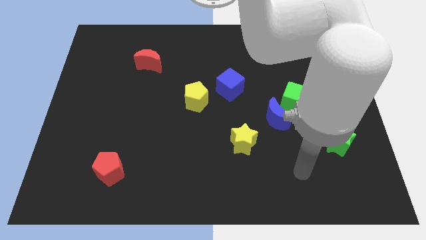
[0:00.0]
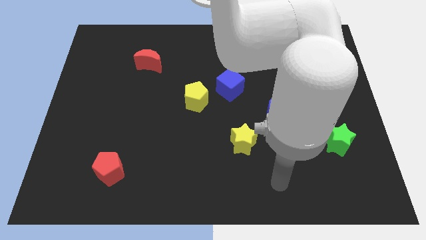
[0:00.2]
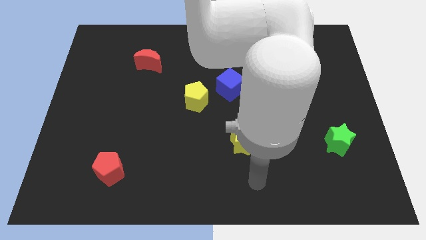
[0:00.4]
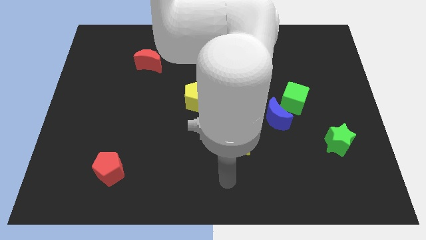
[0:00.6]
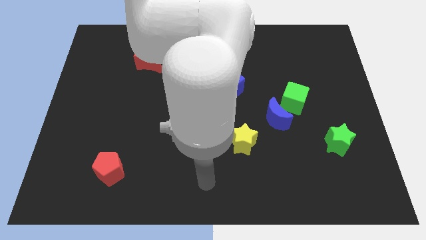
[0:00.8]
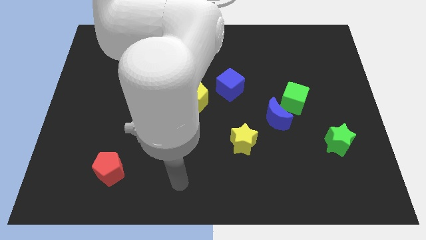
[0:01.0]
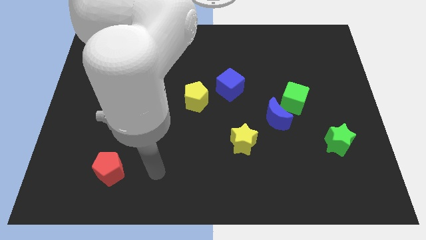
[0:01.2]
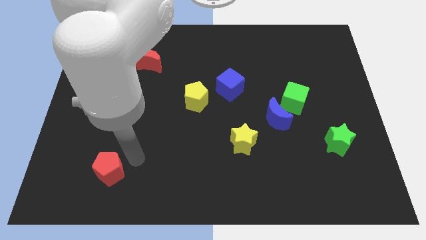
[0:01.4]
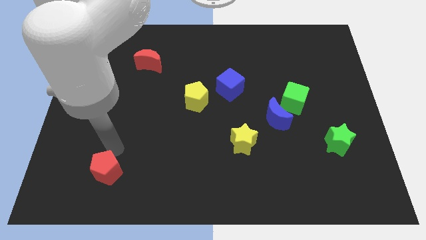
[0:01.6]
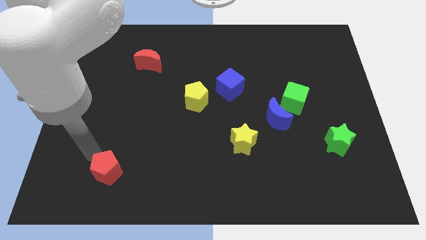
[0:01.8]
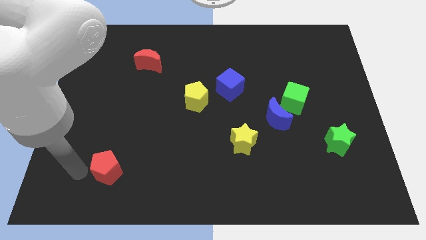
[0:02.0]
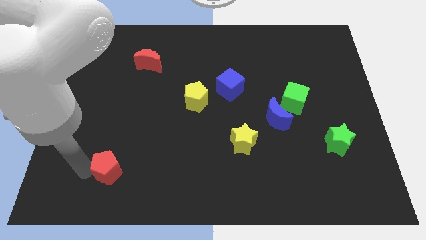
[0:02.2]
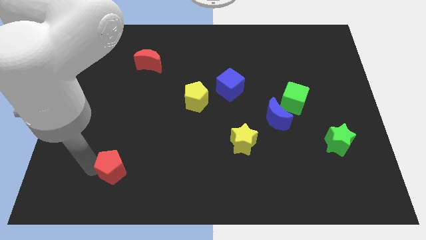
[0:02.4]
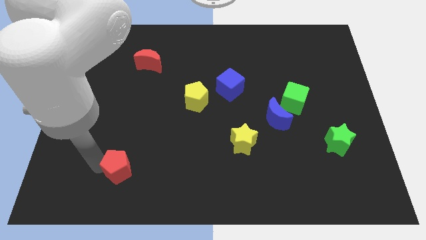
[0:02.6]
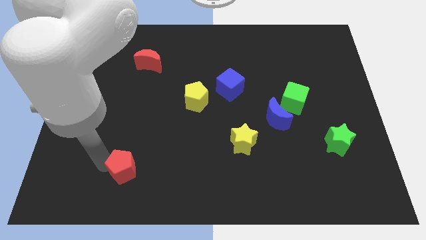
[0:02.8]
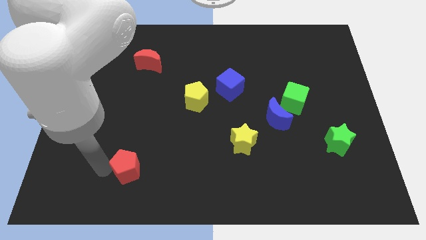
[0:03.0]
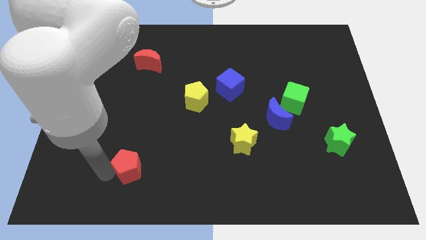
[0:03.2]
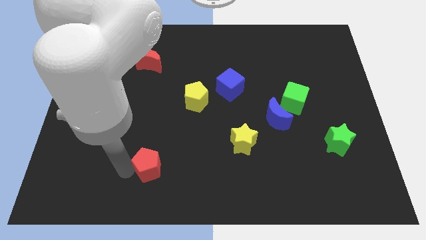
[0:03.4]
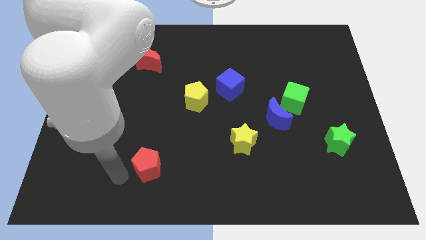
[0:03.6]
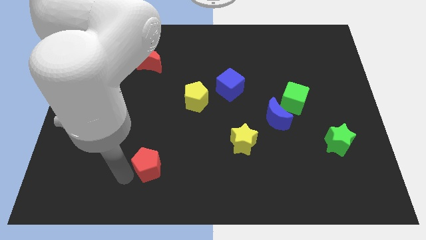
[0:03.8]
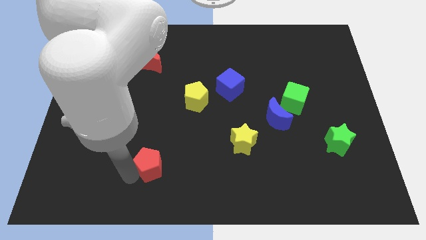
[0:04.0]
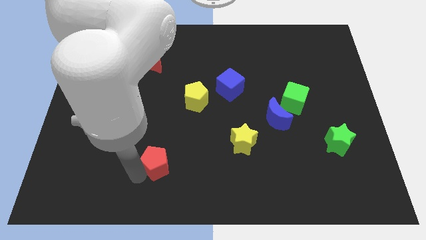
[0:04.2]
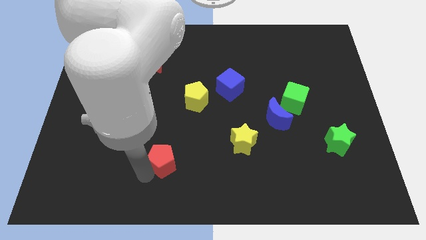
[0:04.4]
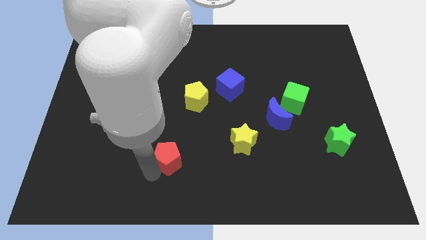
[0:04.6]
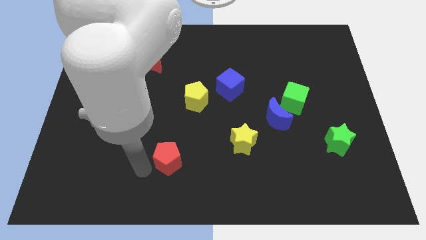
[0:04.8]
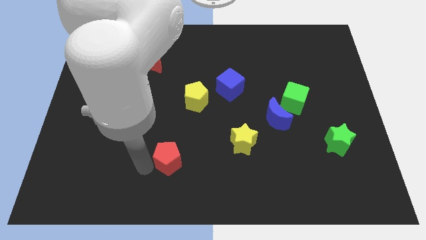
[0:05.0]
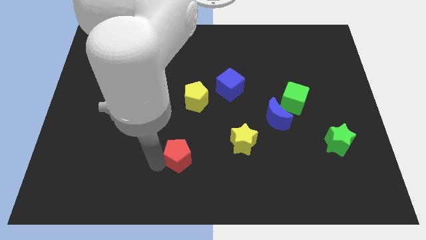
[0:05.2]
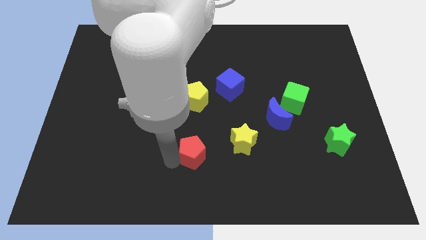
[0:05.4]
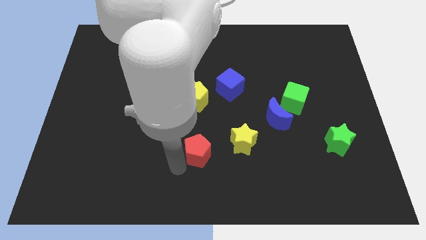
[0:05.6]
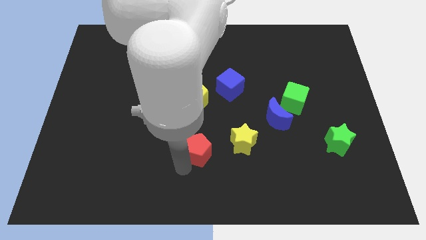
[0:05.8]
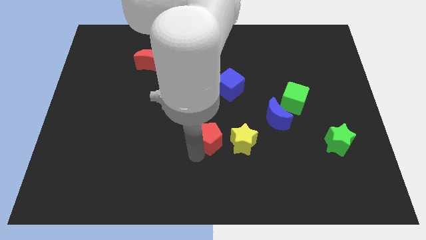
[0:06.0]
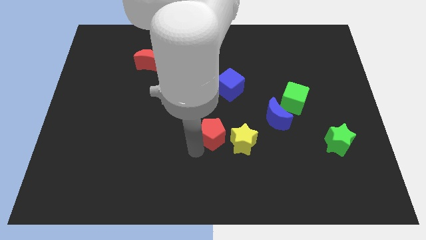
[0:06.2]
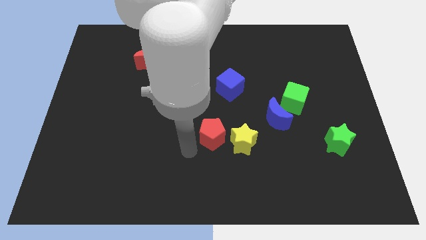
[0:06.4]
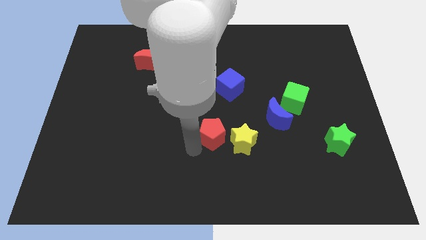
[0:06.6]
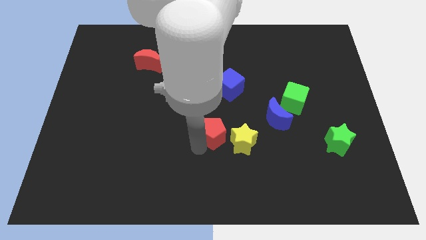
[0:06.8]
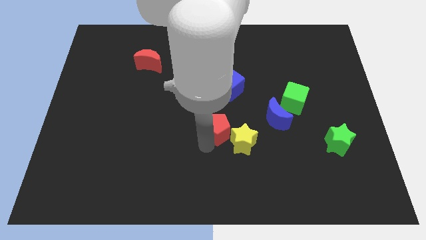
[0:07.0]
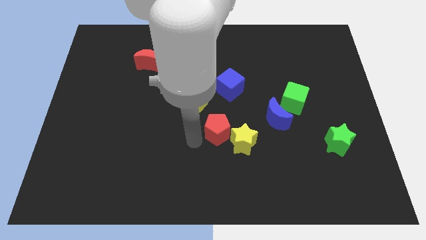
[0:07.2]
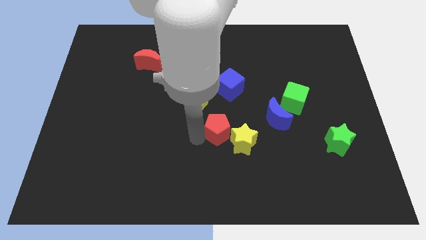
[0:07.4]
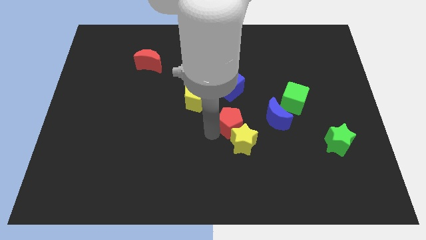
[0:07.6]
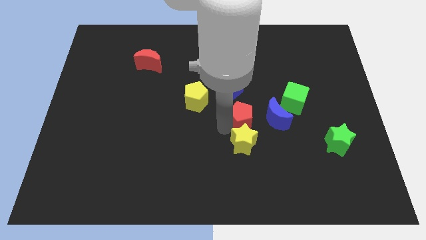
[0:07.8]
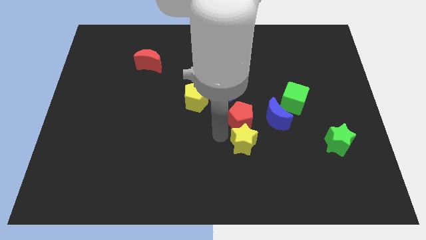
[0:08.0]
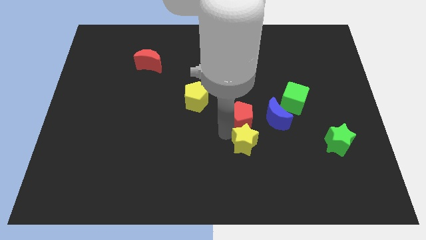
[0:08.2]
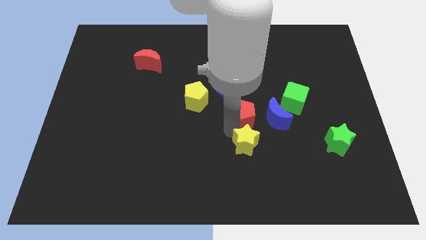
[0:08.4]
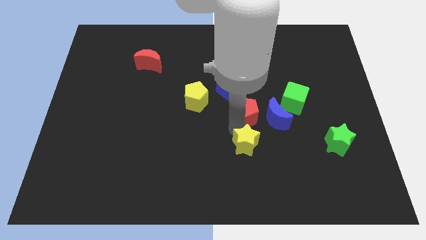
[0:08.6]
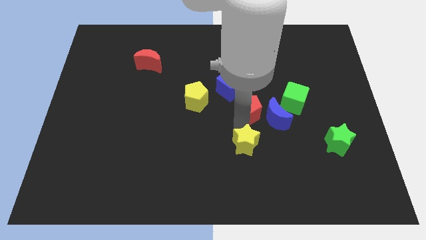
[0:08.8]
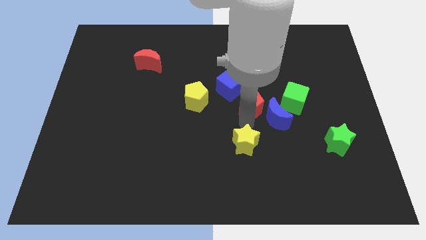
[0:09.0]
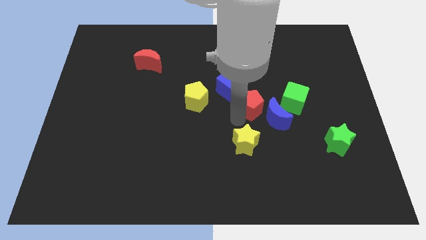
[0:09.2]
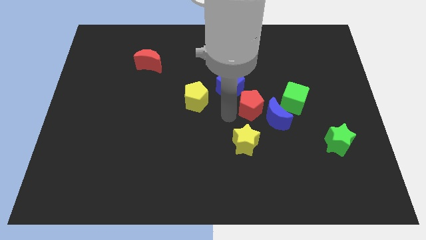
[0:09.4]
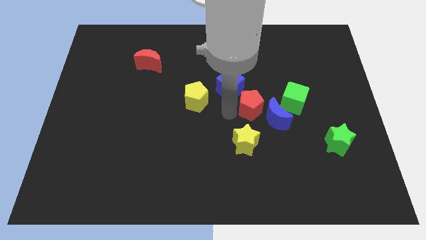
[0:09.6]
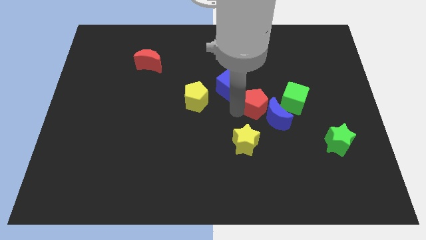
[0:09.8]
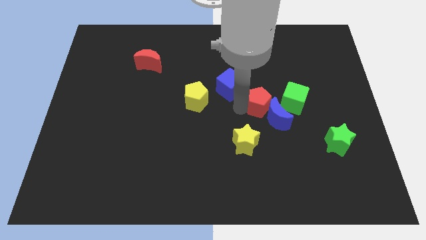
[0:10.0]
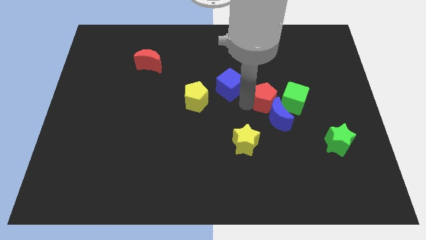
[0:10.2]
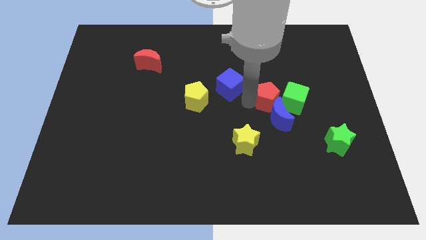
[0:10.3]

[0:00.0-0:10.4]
slide the red pentagon towards the green cube

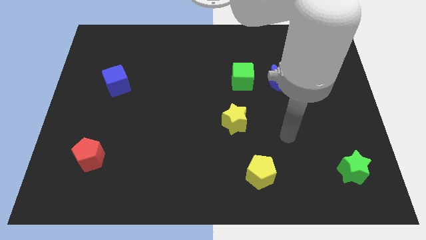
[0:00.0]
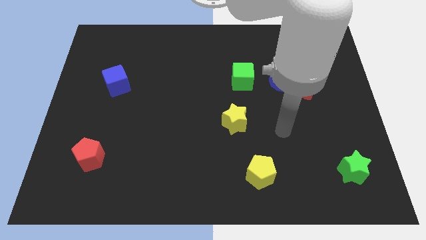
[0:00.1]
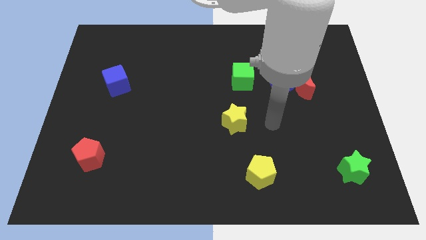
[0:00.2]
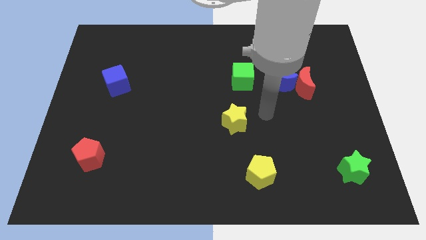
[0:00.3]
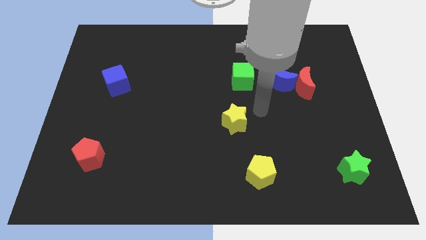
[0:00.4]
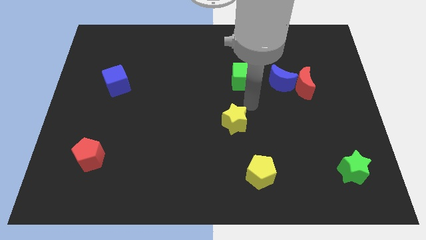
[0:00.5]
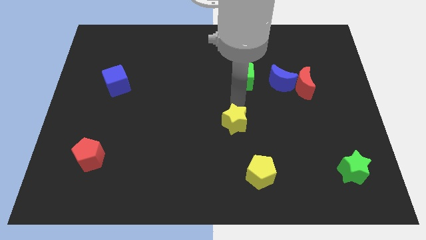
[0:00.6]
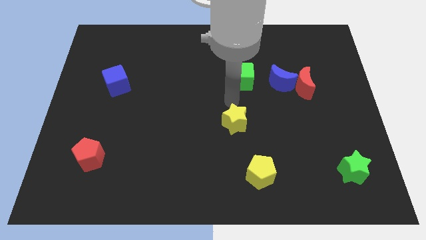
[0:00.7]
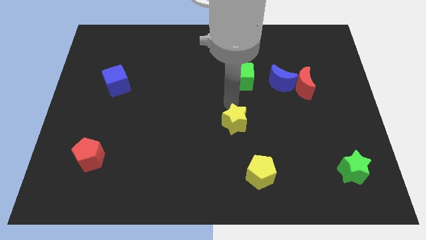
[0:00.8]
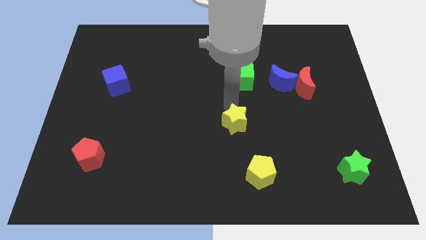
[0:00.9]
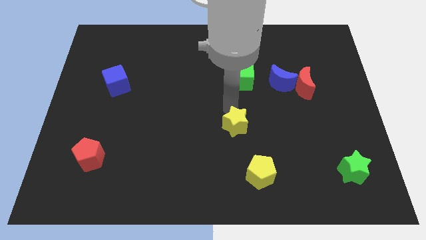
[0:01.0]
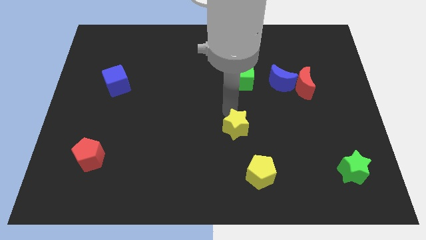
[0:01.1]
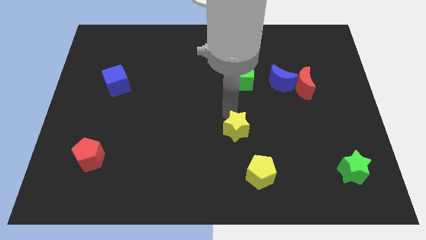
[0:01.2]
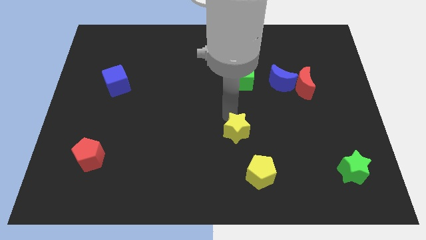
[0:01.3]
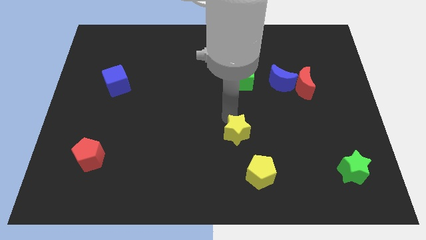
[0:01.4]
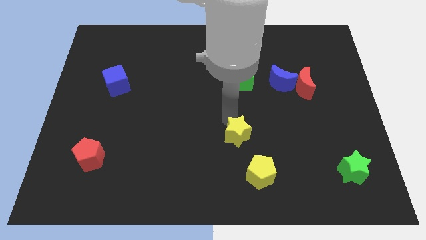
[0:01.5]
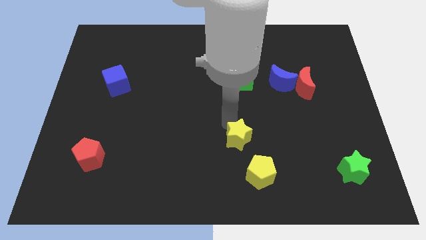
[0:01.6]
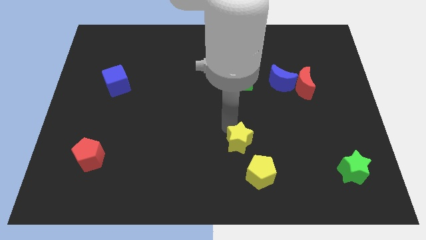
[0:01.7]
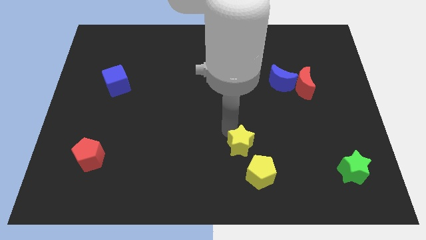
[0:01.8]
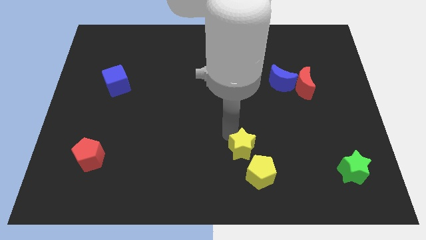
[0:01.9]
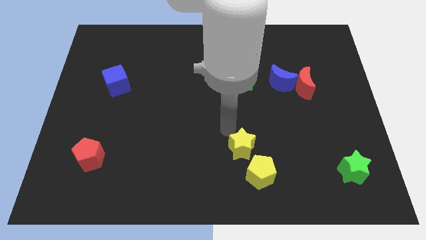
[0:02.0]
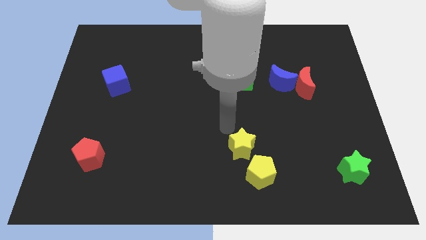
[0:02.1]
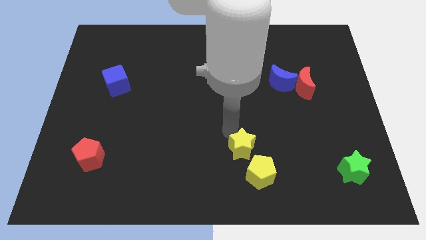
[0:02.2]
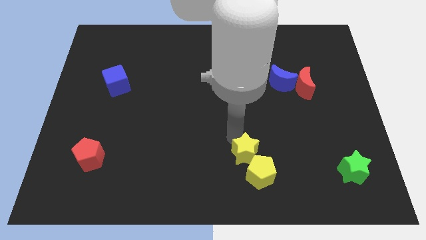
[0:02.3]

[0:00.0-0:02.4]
push the yellow star to the yellow pentagon

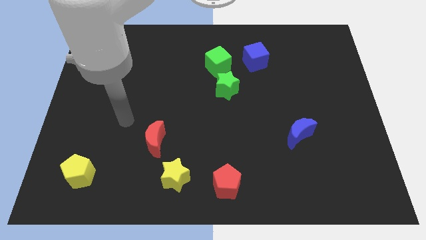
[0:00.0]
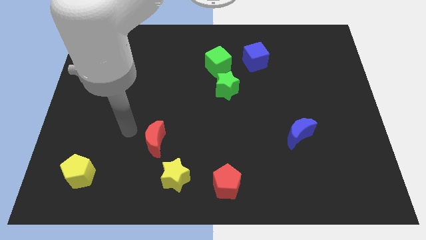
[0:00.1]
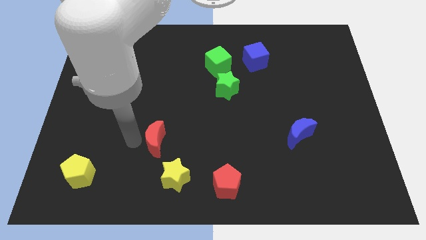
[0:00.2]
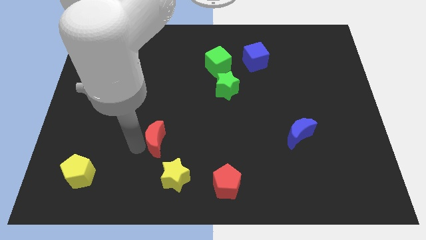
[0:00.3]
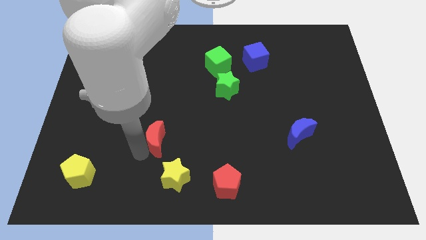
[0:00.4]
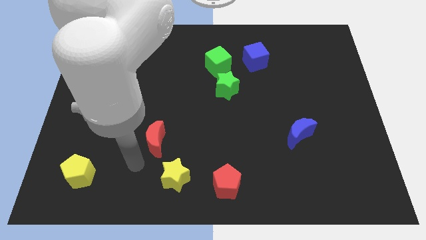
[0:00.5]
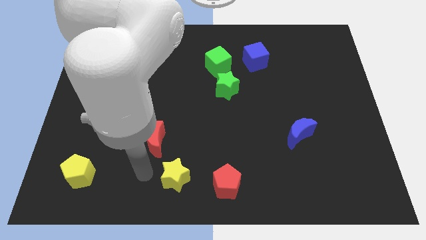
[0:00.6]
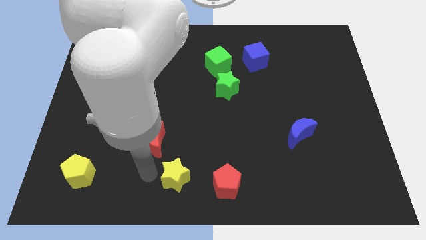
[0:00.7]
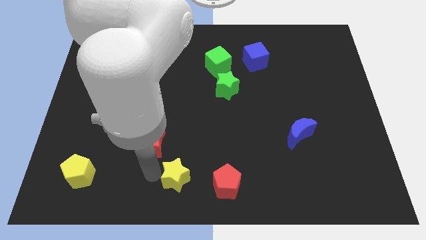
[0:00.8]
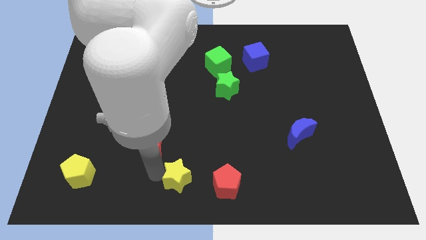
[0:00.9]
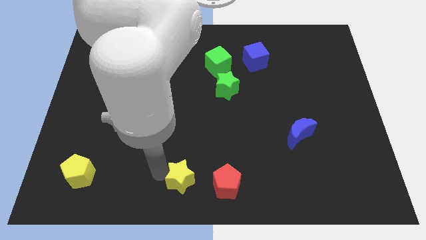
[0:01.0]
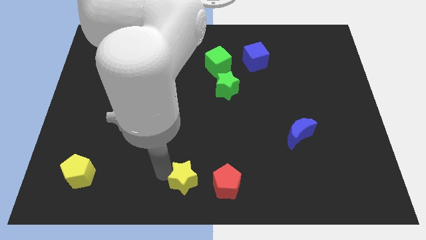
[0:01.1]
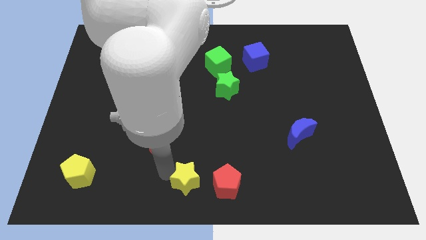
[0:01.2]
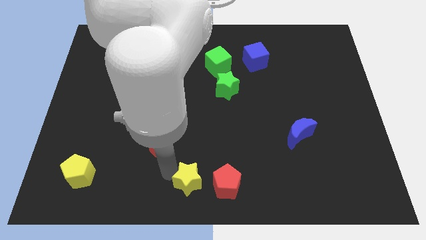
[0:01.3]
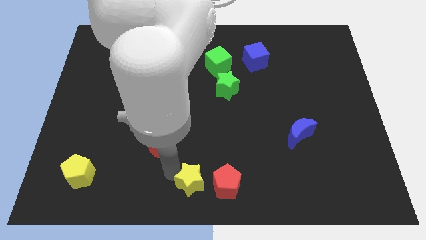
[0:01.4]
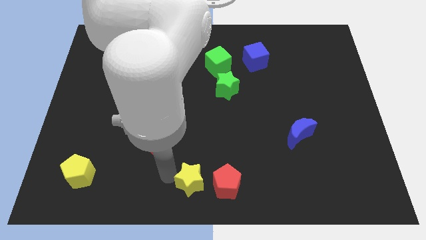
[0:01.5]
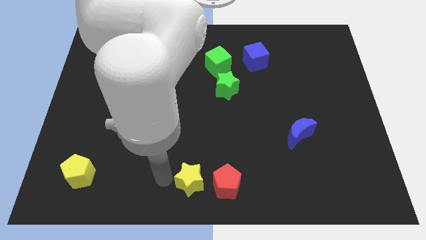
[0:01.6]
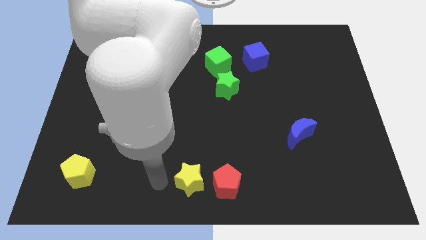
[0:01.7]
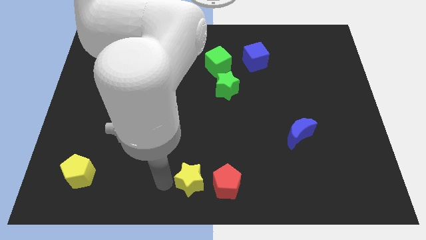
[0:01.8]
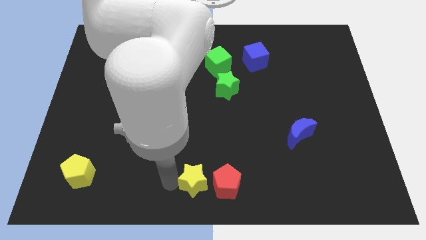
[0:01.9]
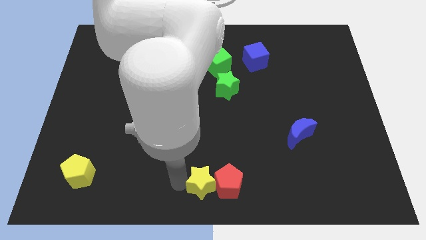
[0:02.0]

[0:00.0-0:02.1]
move the yellow star to the red pentagon
